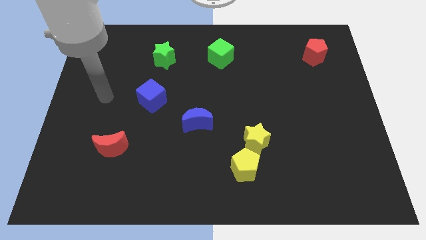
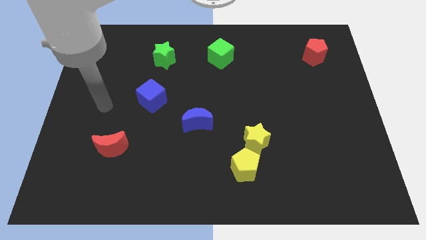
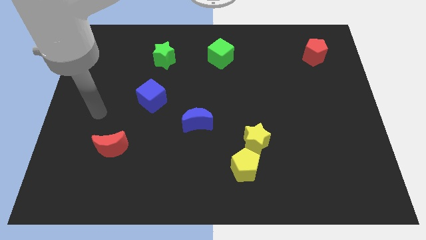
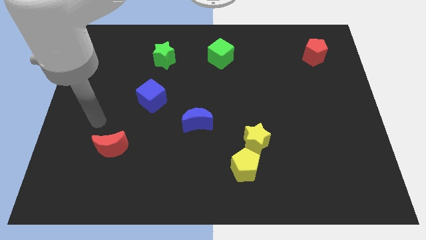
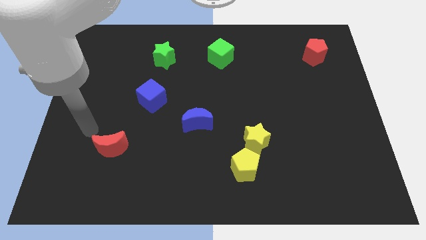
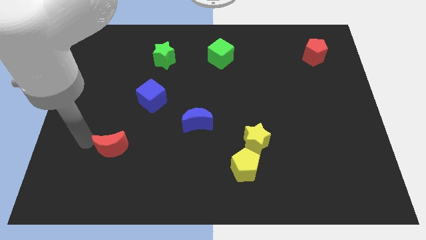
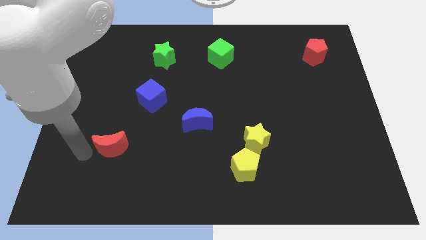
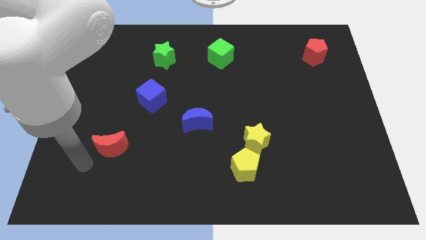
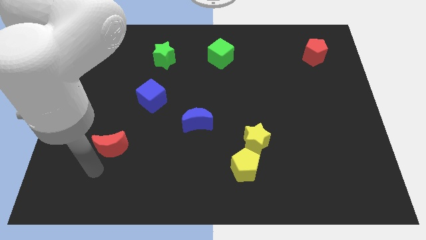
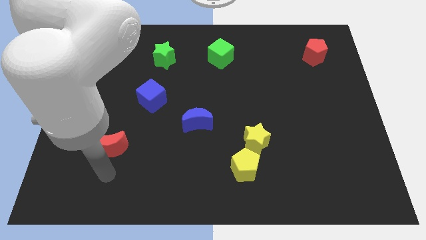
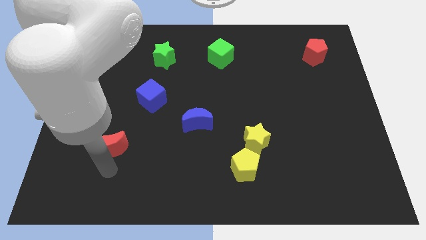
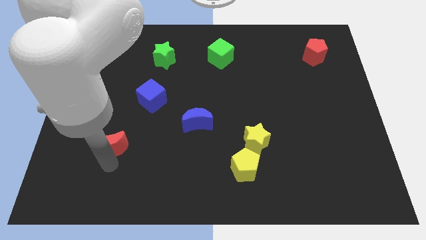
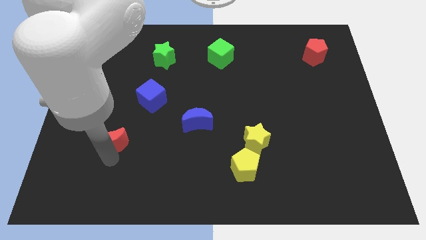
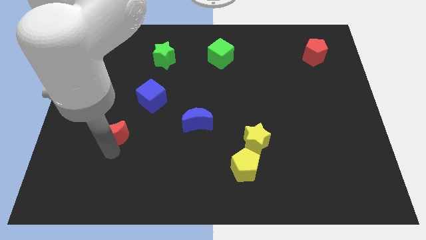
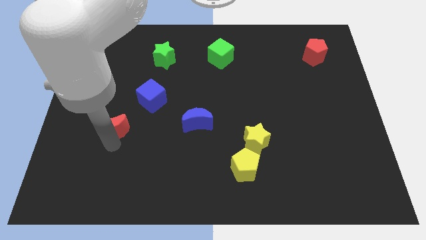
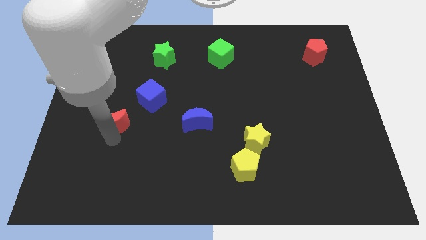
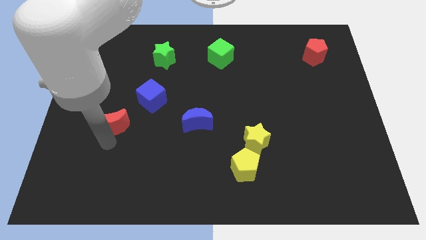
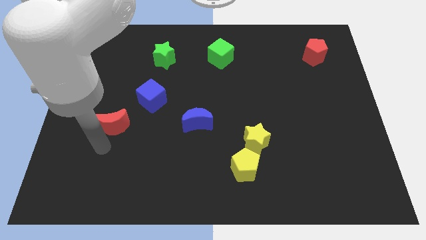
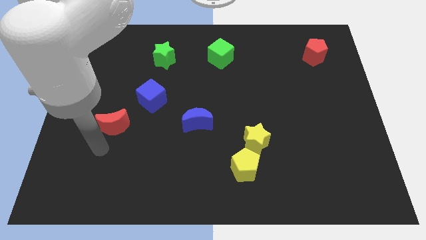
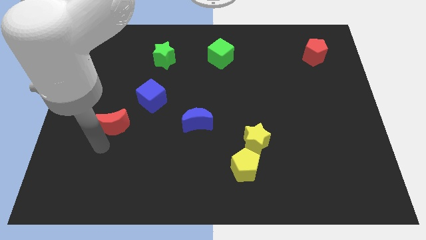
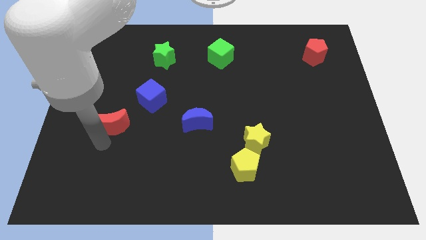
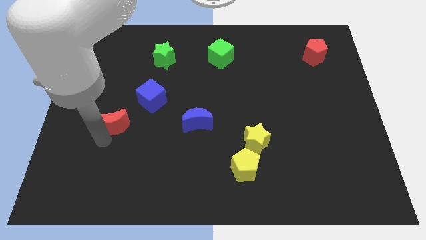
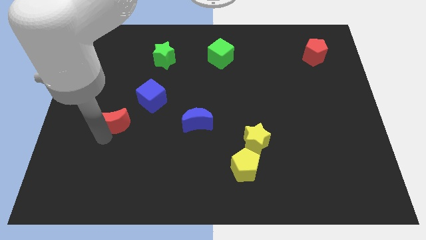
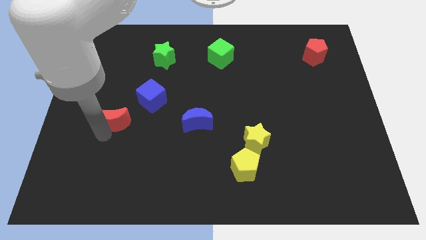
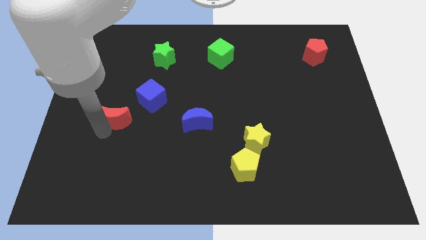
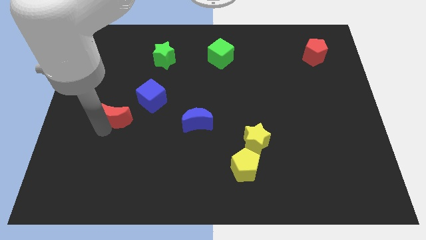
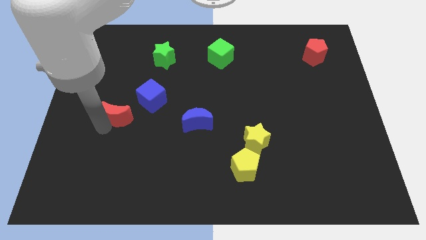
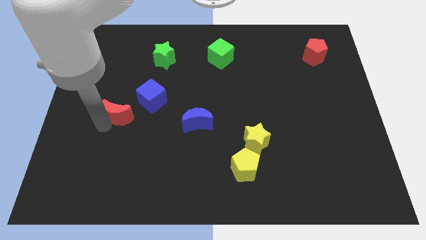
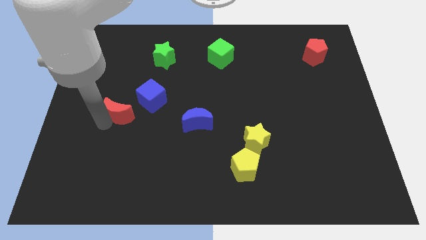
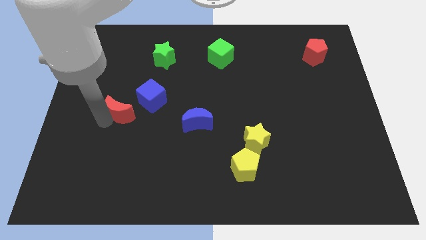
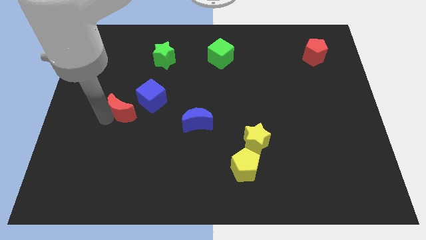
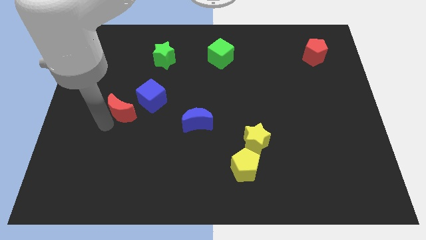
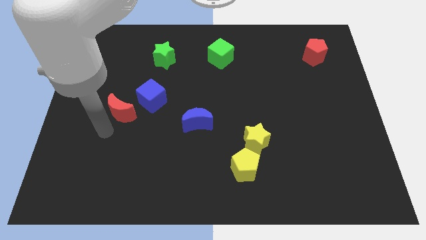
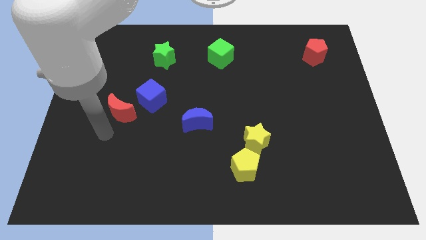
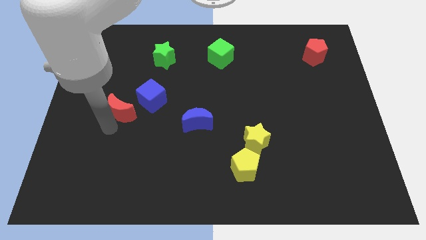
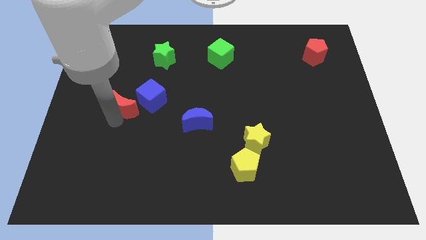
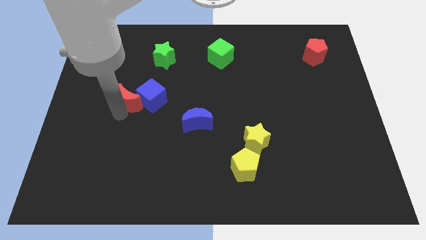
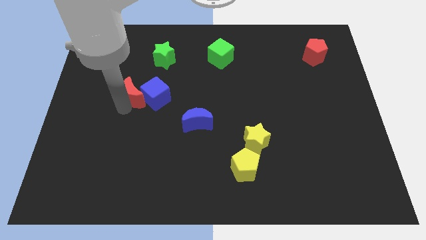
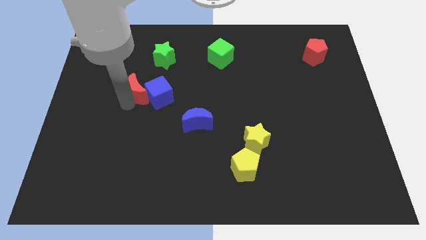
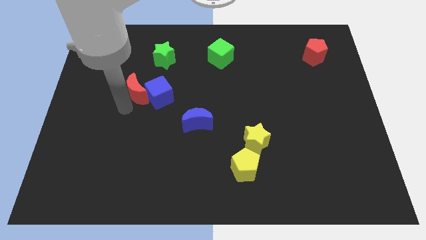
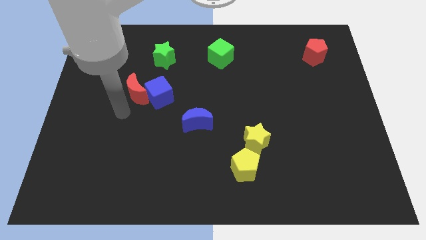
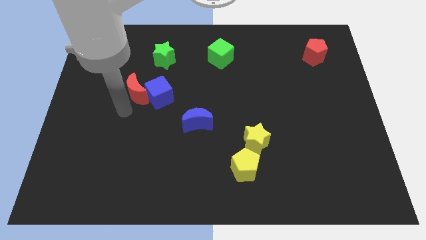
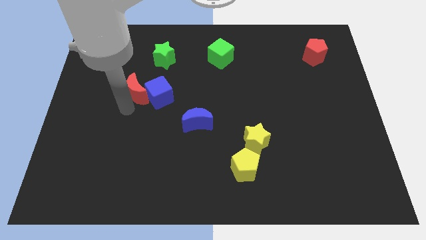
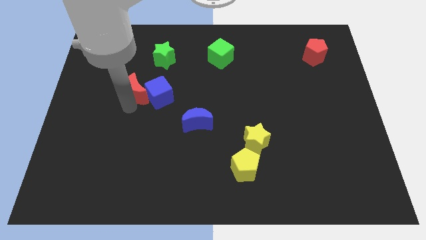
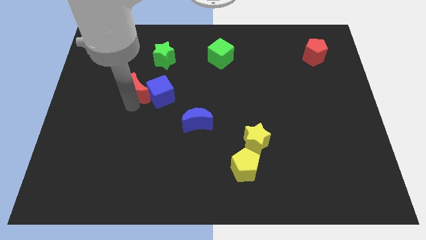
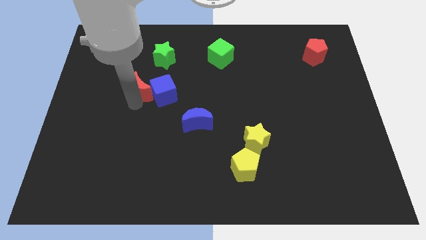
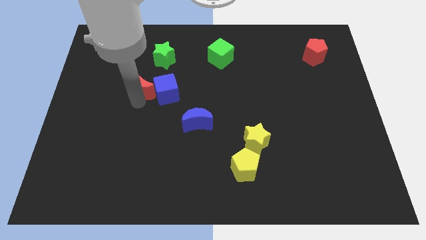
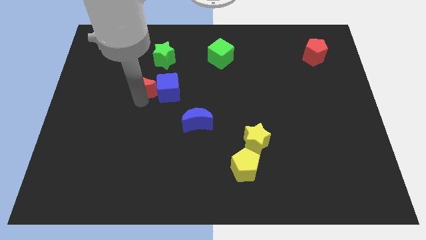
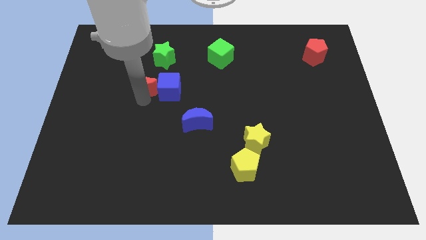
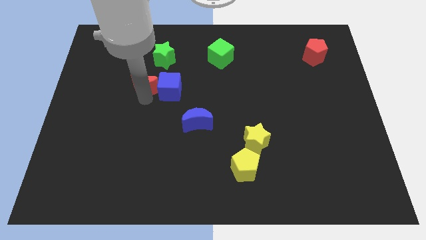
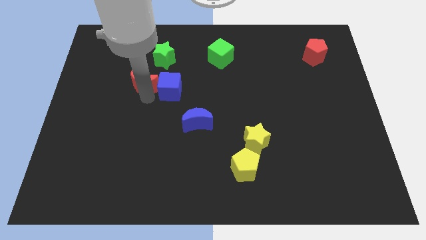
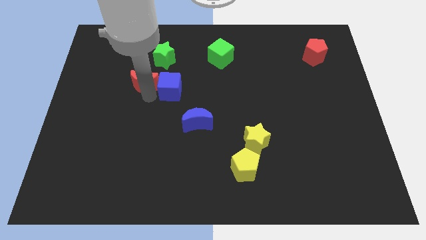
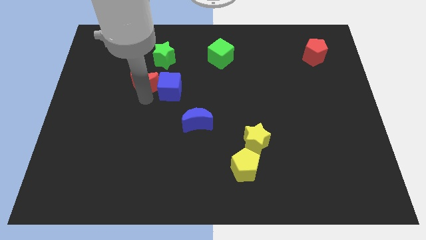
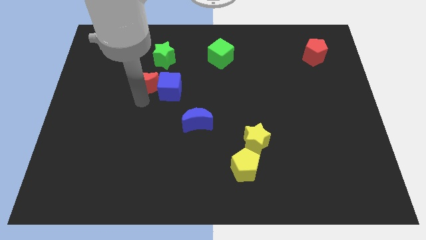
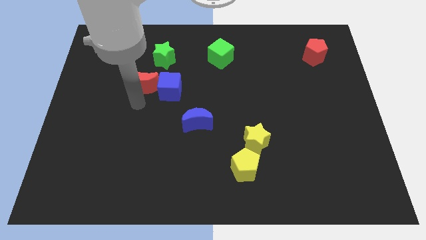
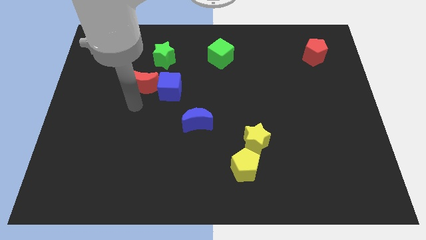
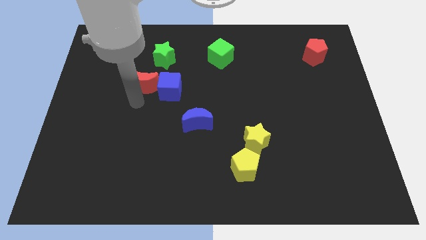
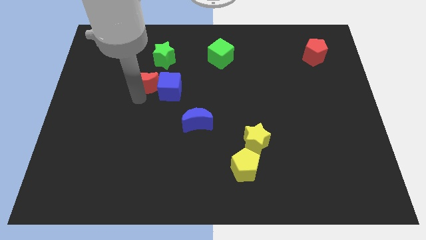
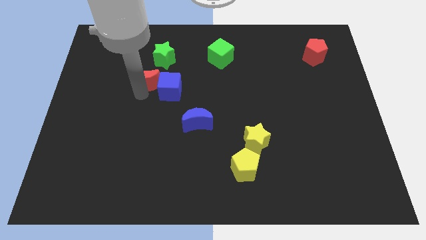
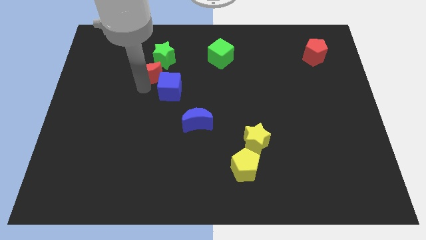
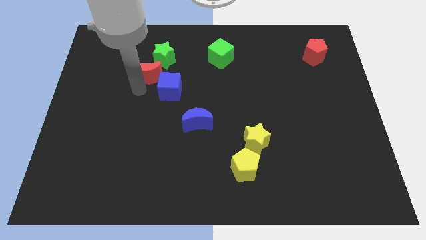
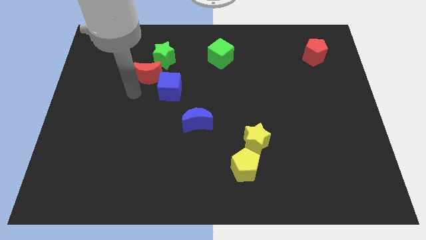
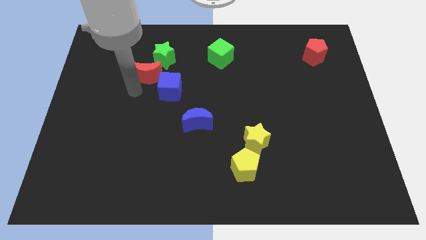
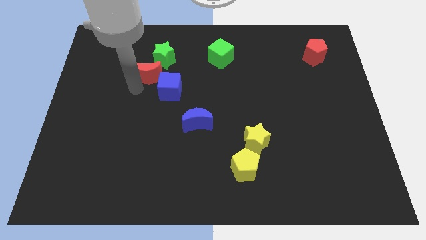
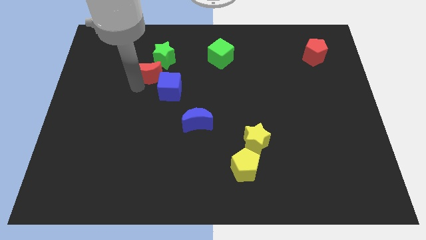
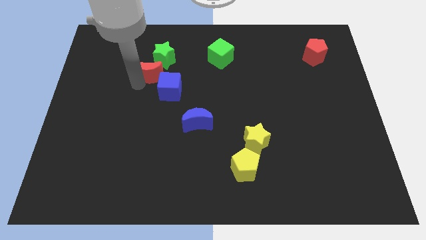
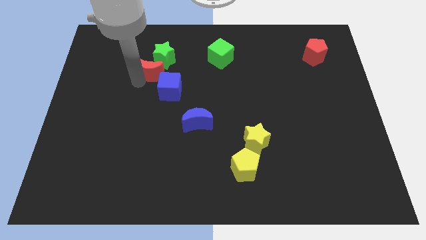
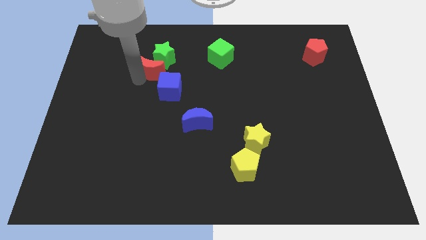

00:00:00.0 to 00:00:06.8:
put the red moon close to the green star

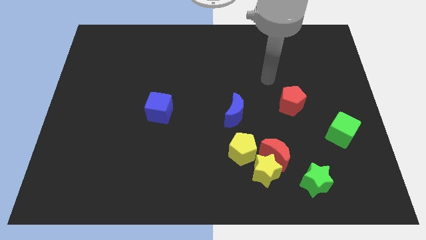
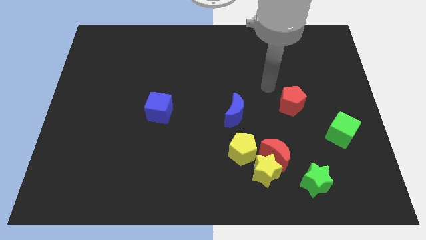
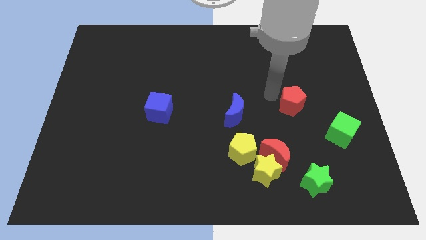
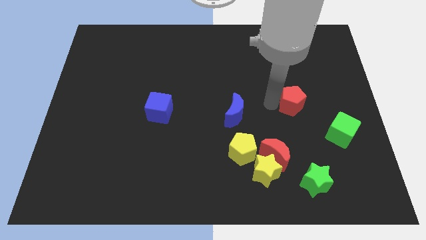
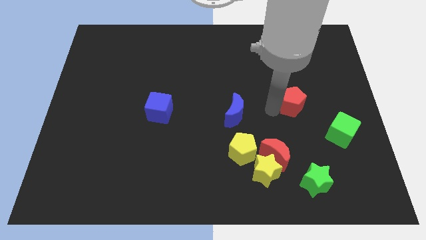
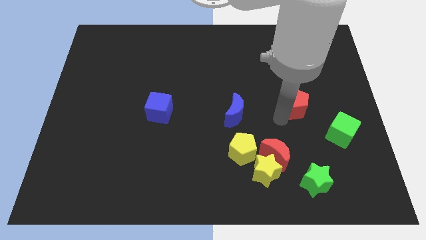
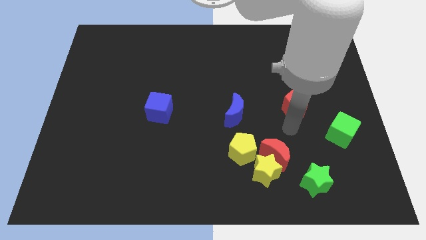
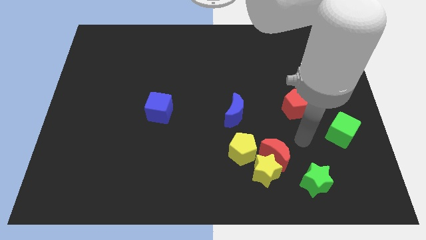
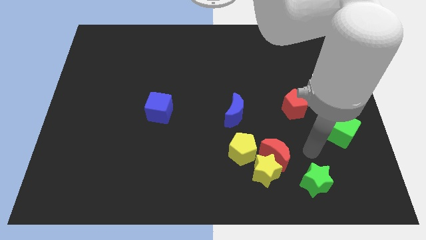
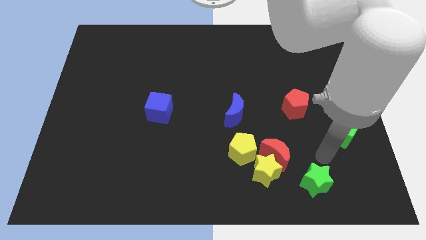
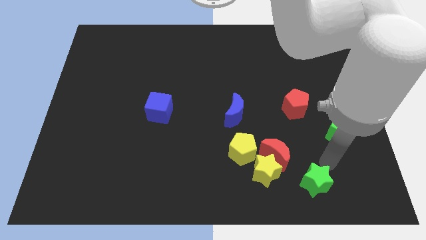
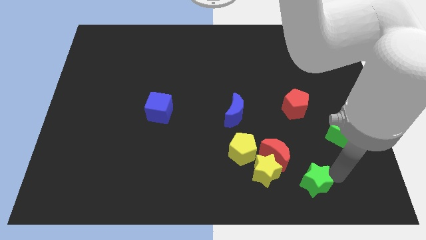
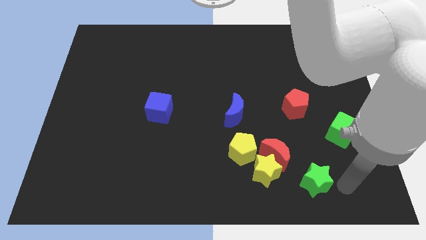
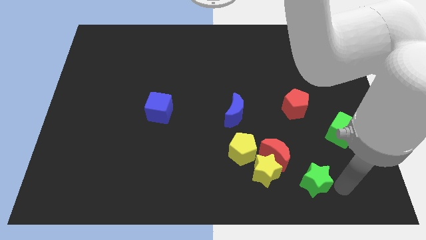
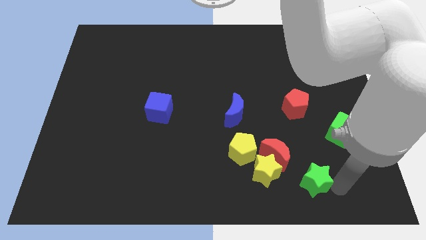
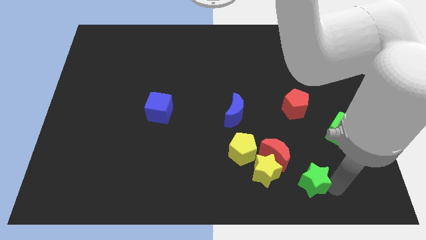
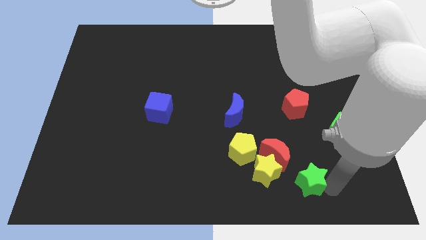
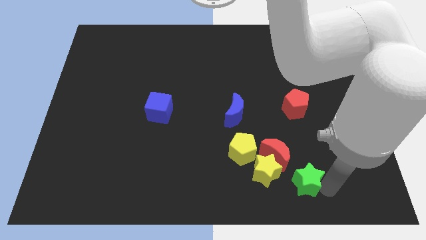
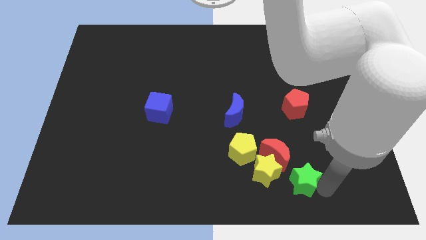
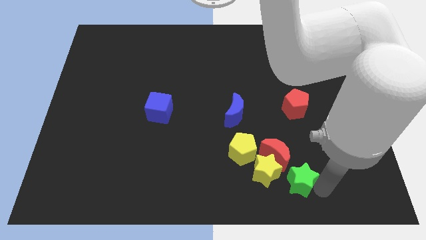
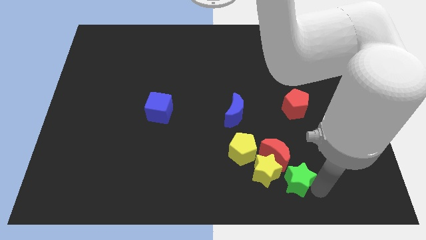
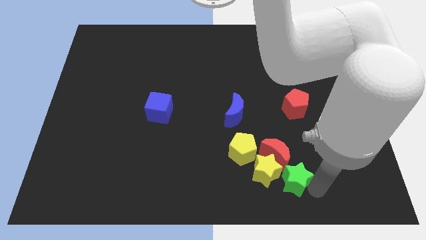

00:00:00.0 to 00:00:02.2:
slide the green star next to the yellow star
